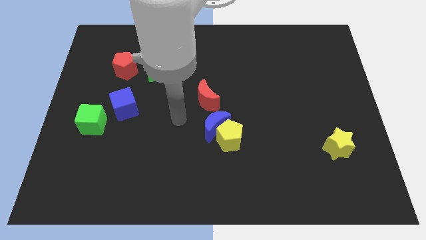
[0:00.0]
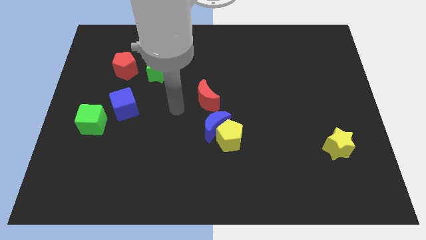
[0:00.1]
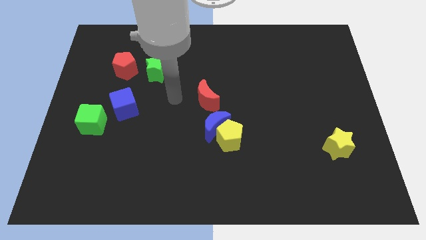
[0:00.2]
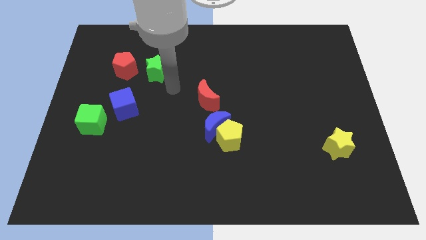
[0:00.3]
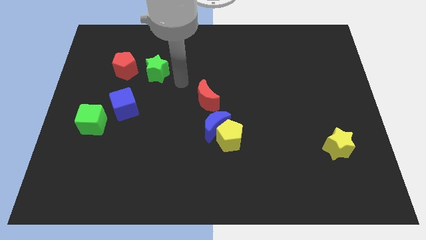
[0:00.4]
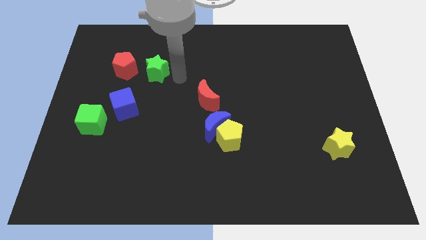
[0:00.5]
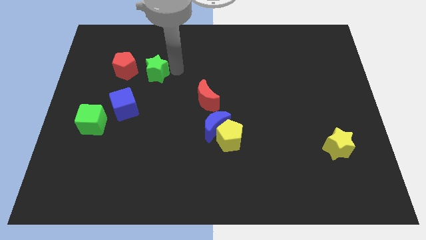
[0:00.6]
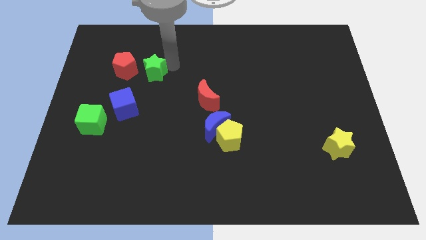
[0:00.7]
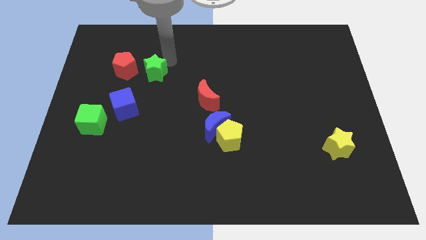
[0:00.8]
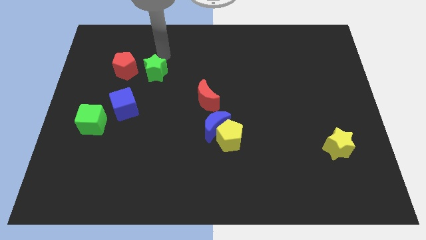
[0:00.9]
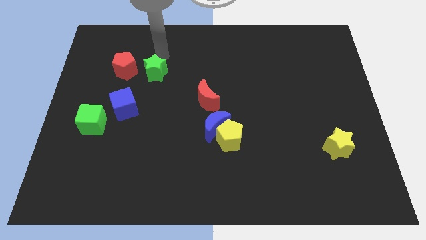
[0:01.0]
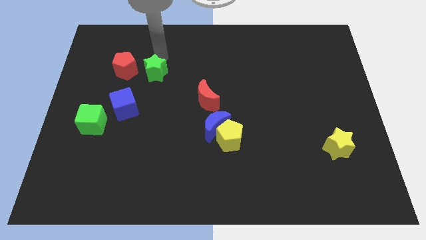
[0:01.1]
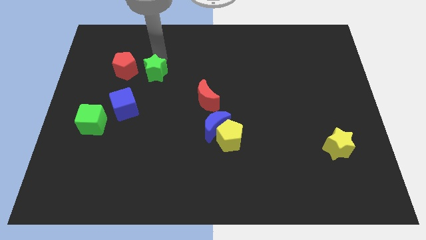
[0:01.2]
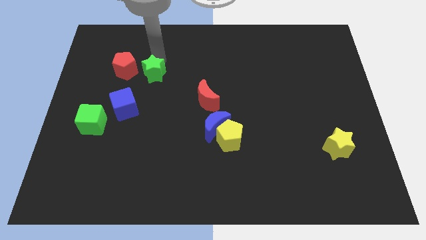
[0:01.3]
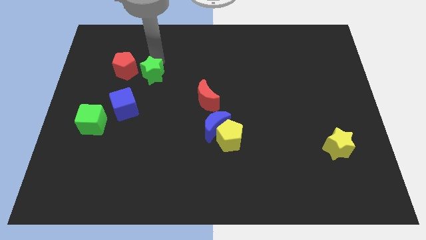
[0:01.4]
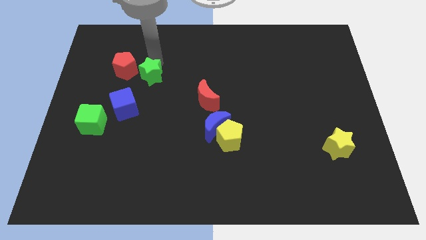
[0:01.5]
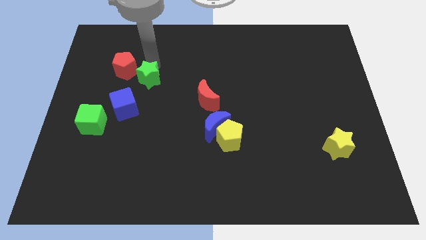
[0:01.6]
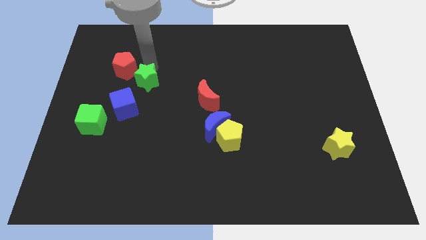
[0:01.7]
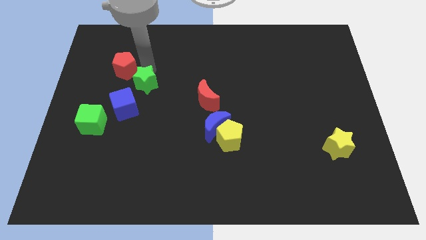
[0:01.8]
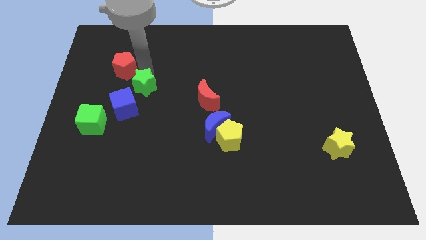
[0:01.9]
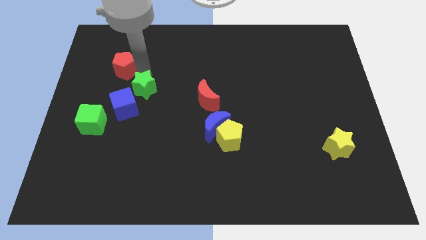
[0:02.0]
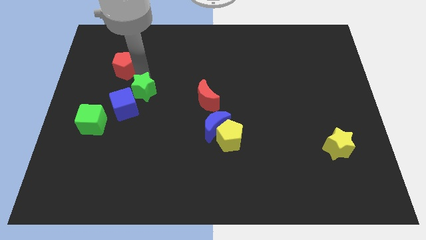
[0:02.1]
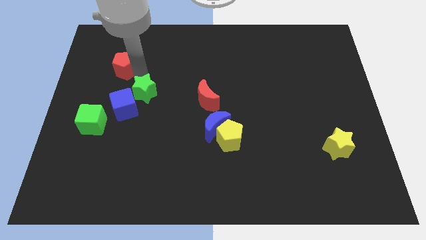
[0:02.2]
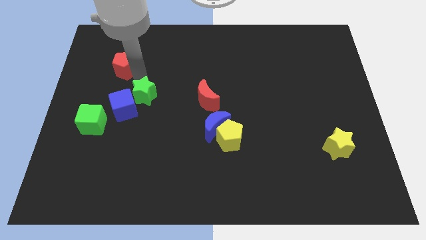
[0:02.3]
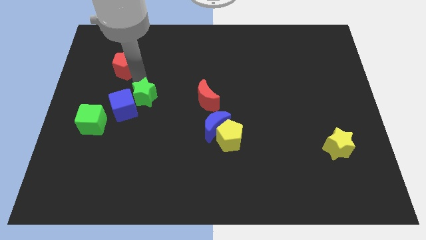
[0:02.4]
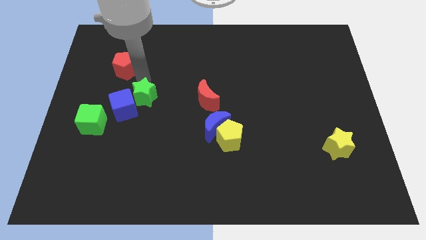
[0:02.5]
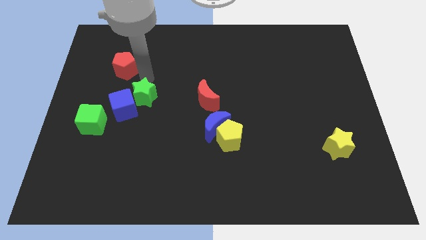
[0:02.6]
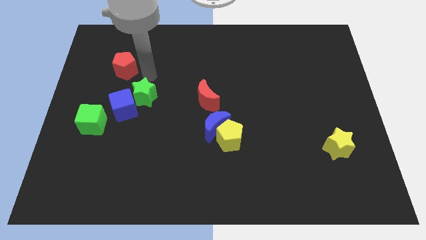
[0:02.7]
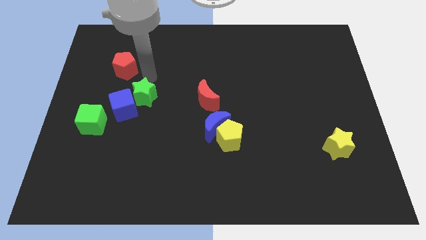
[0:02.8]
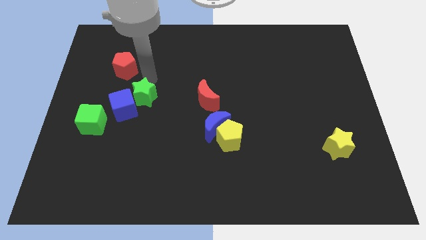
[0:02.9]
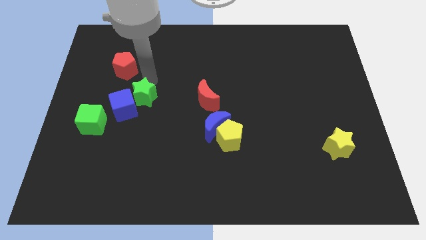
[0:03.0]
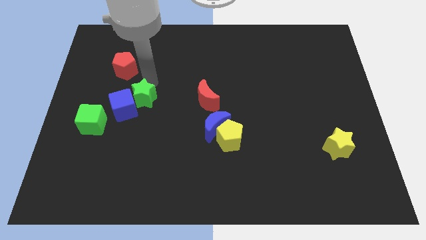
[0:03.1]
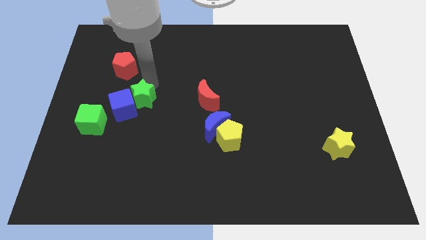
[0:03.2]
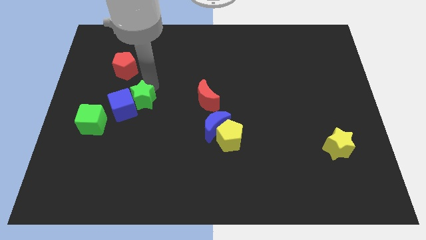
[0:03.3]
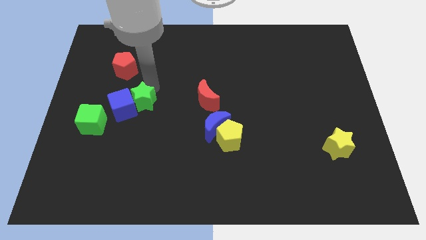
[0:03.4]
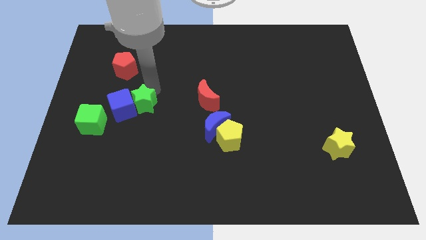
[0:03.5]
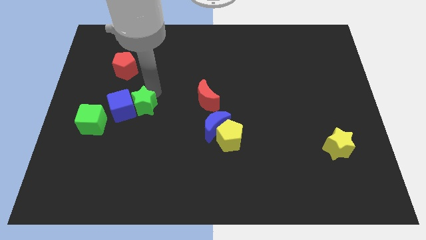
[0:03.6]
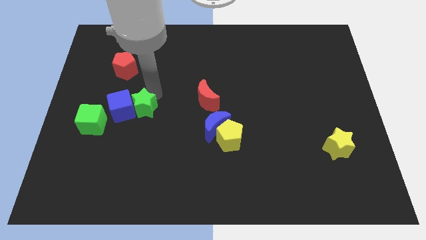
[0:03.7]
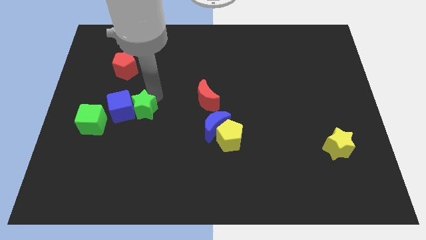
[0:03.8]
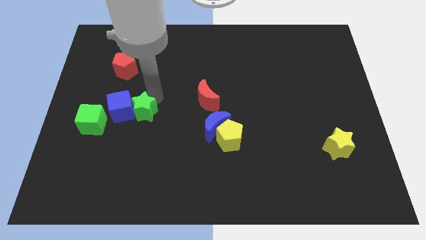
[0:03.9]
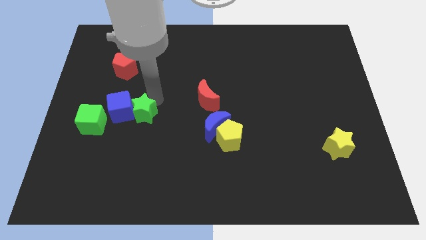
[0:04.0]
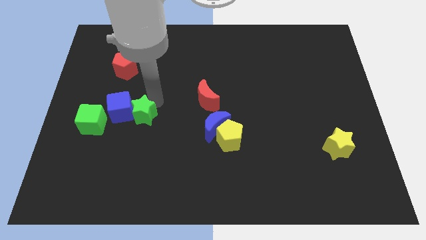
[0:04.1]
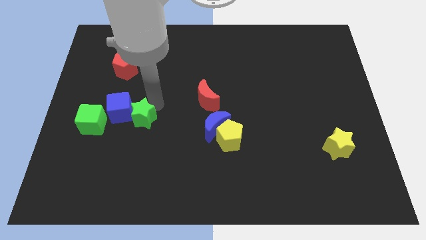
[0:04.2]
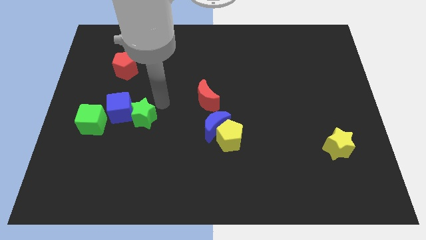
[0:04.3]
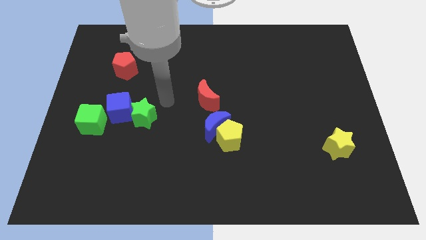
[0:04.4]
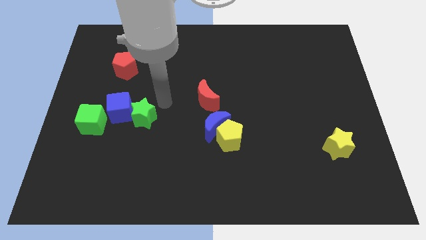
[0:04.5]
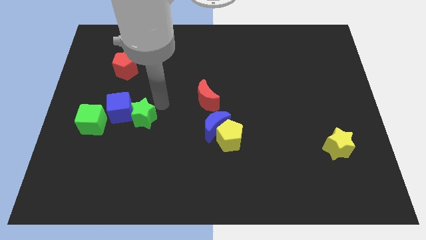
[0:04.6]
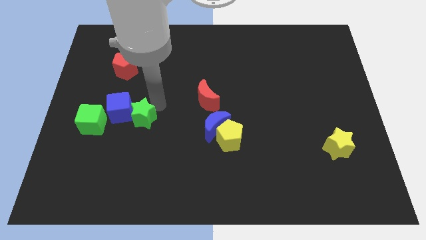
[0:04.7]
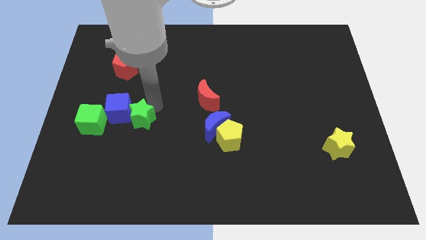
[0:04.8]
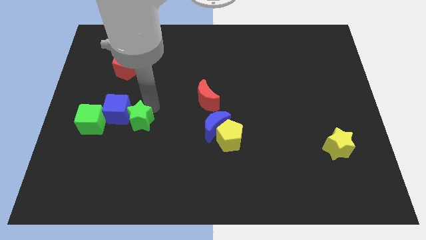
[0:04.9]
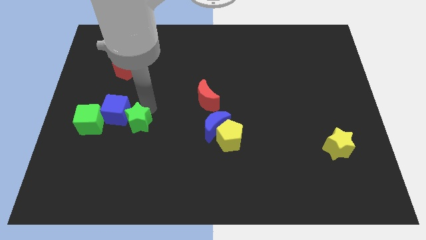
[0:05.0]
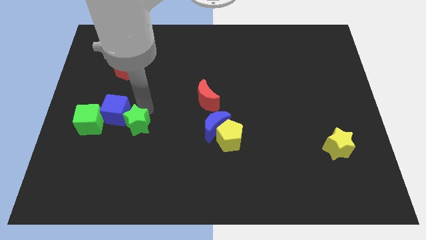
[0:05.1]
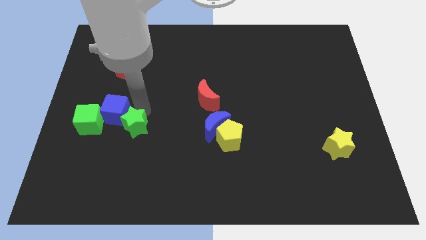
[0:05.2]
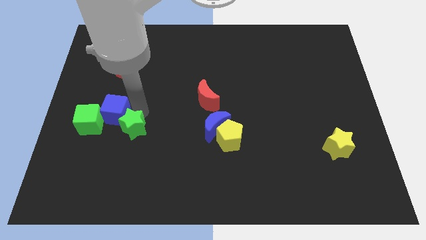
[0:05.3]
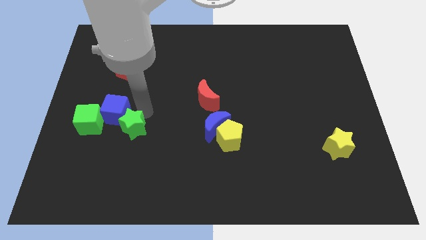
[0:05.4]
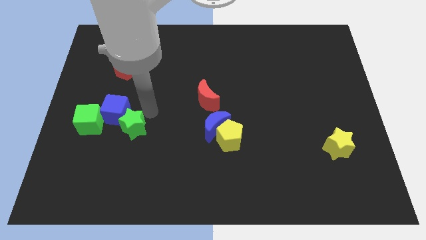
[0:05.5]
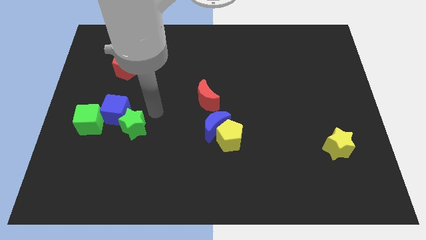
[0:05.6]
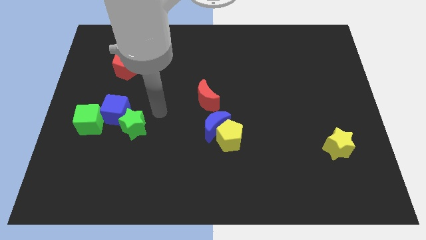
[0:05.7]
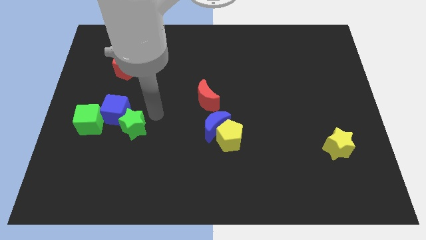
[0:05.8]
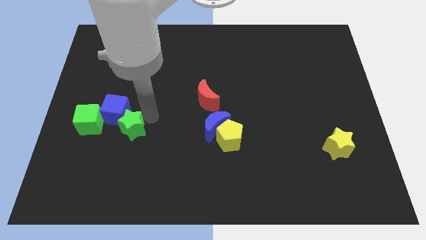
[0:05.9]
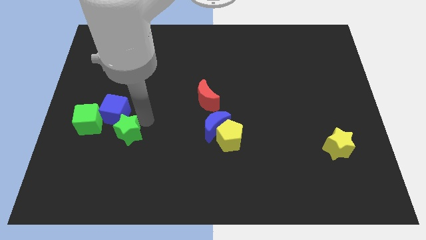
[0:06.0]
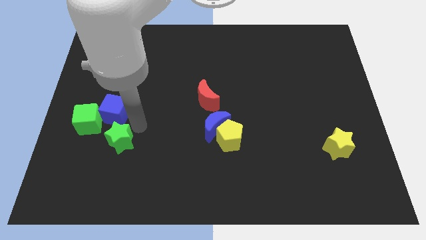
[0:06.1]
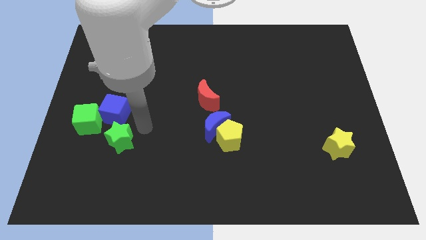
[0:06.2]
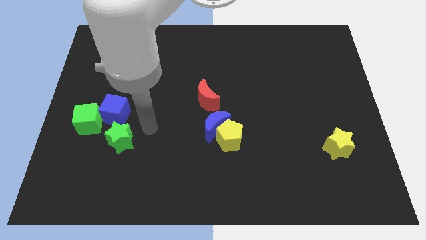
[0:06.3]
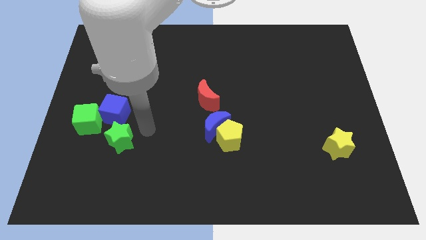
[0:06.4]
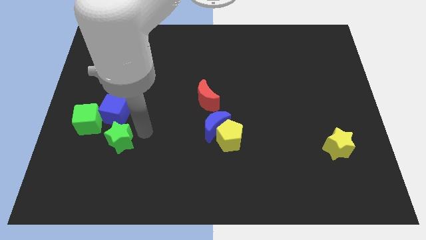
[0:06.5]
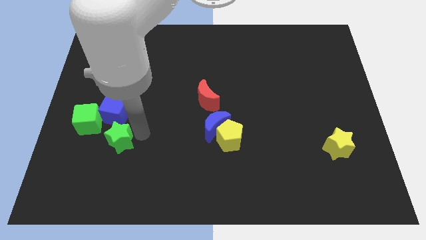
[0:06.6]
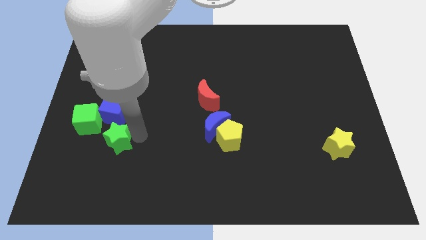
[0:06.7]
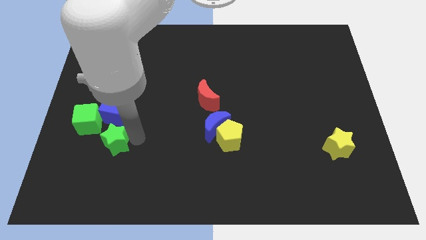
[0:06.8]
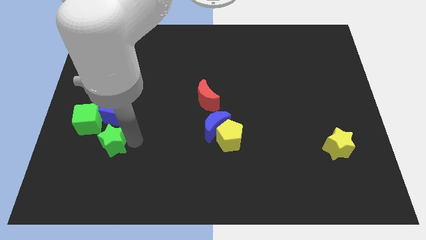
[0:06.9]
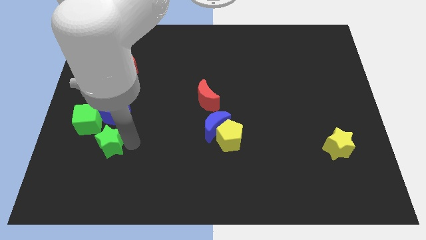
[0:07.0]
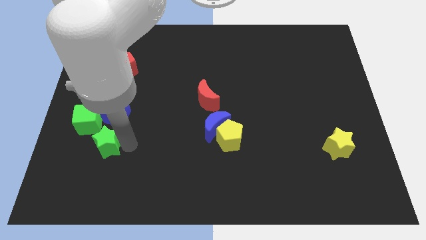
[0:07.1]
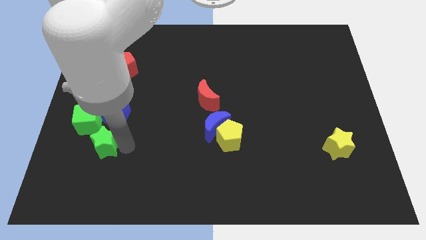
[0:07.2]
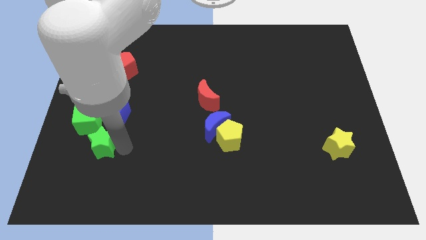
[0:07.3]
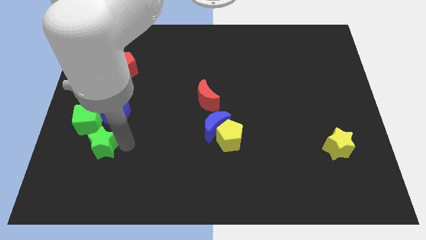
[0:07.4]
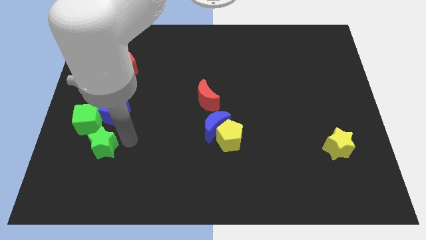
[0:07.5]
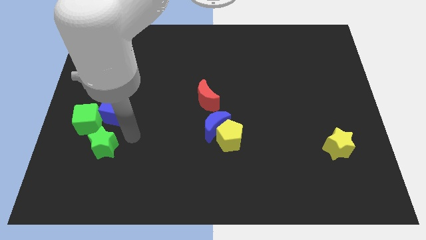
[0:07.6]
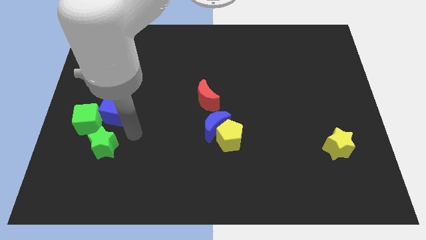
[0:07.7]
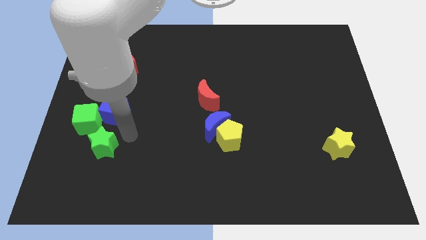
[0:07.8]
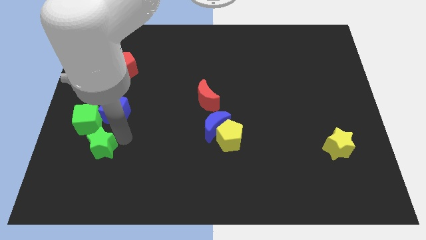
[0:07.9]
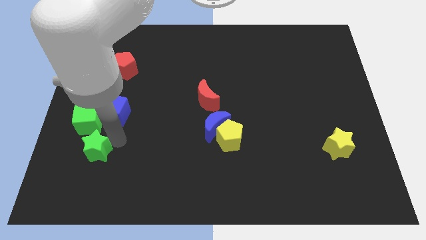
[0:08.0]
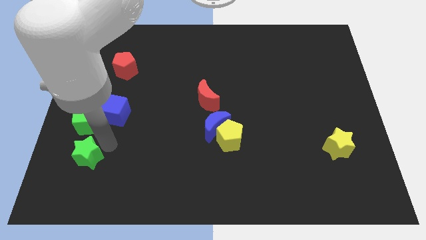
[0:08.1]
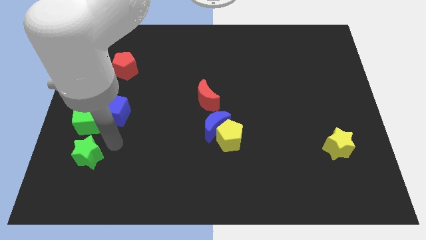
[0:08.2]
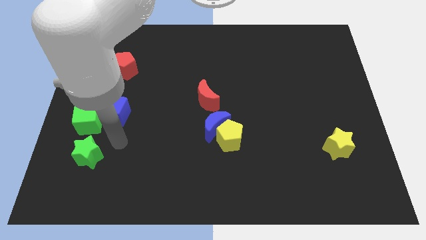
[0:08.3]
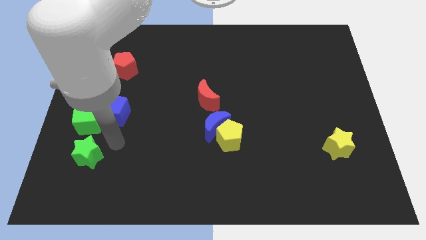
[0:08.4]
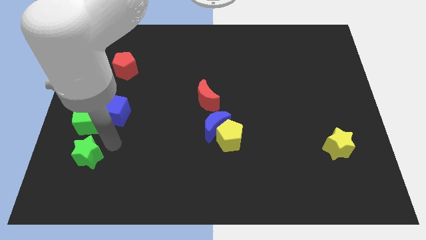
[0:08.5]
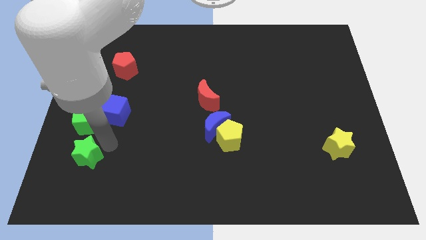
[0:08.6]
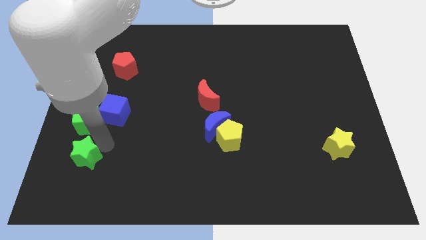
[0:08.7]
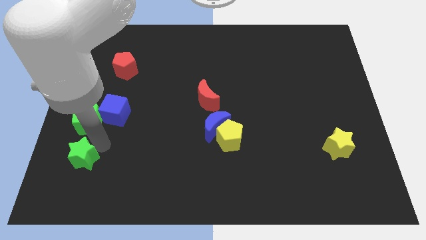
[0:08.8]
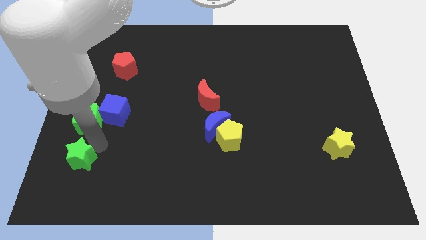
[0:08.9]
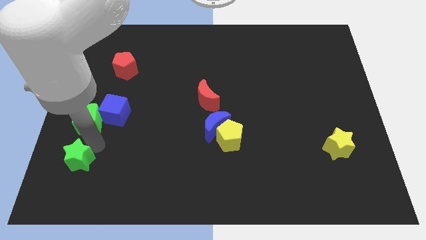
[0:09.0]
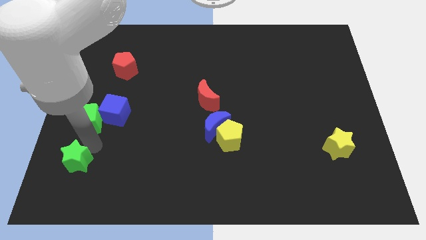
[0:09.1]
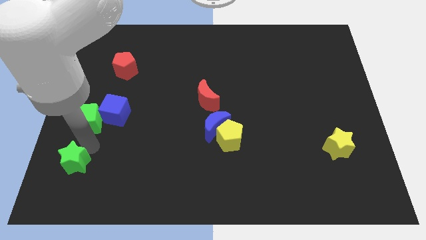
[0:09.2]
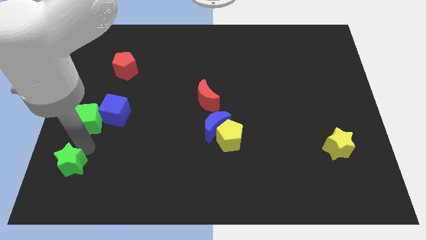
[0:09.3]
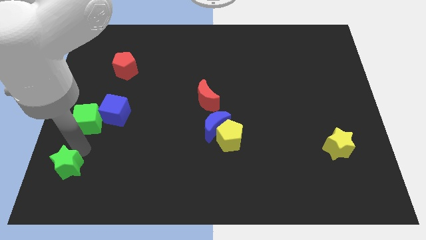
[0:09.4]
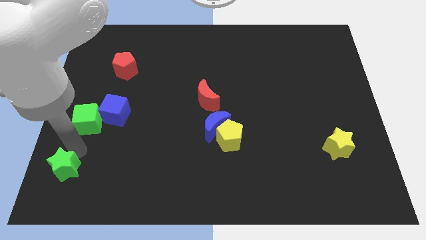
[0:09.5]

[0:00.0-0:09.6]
move the green star to the bottom left of the board
